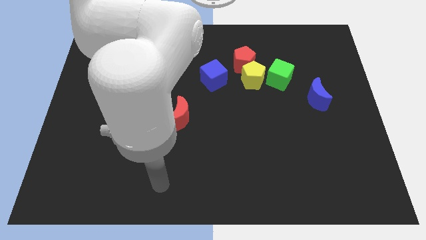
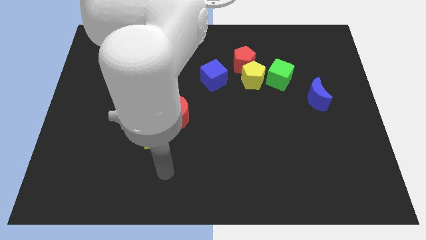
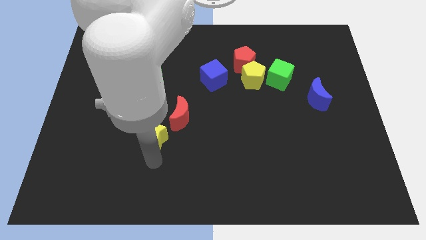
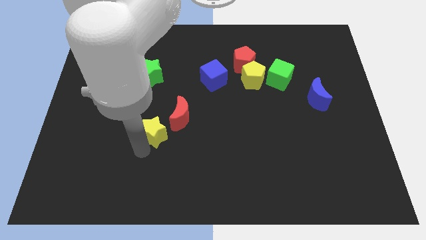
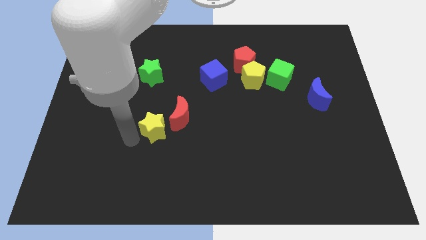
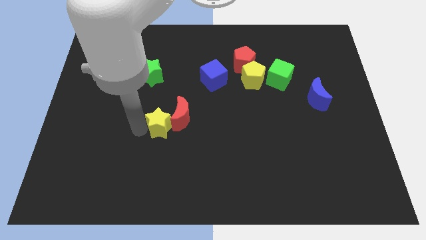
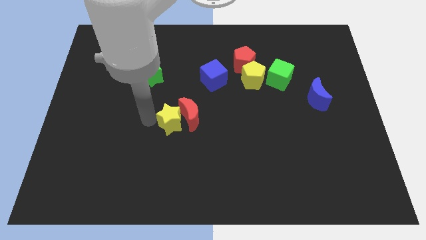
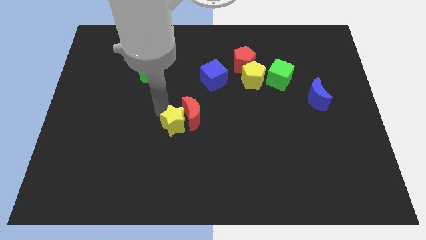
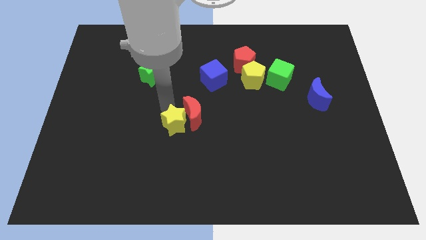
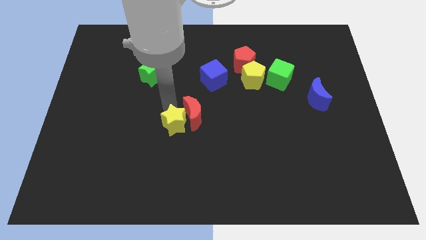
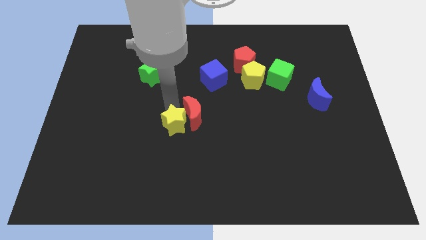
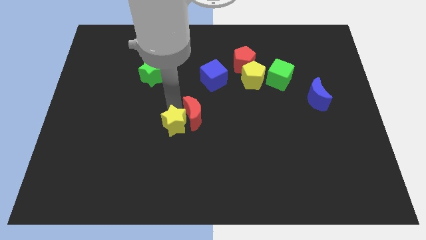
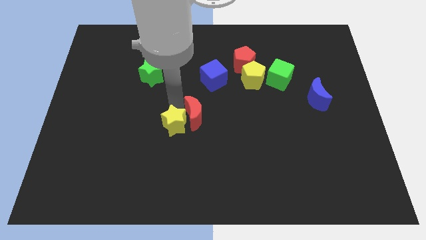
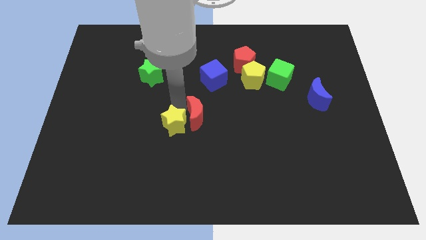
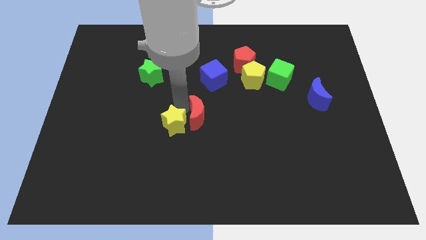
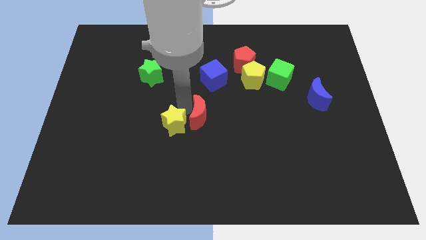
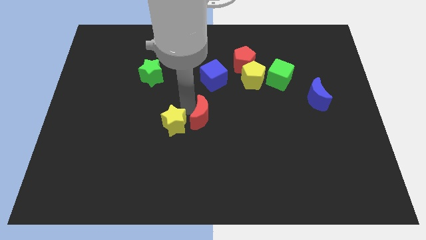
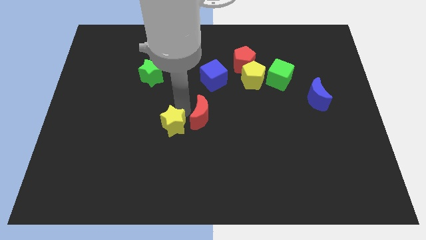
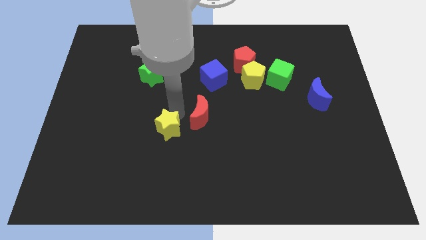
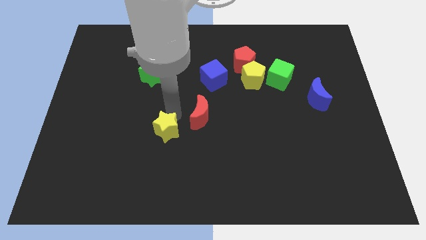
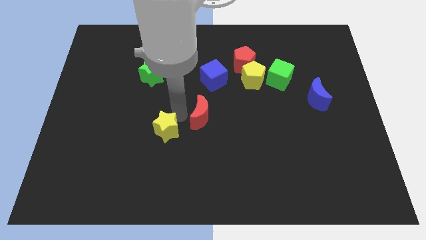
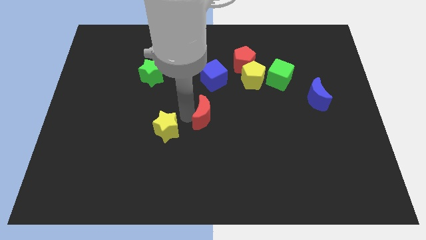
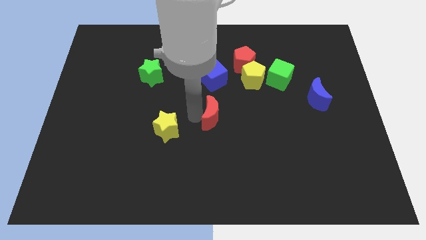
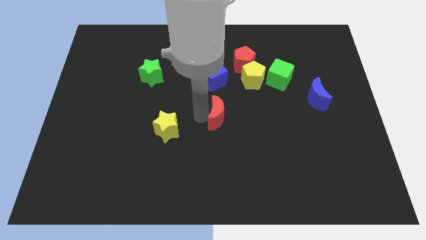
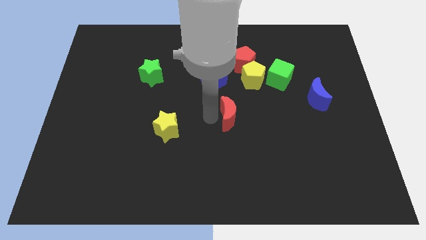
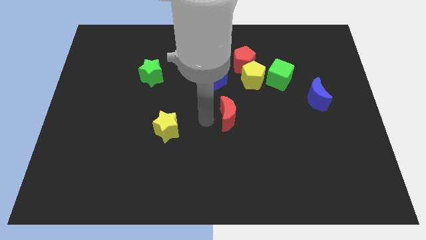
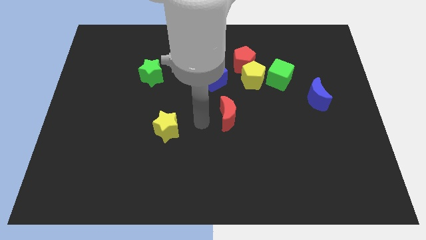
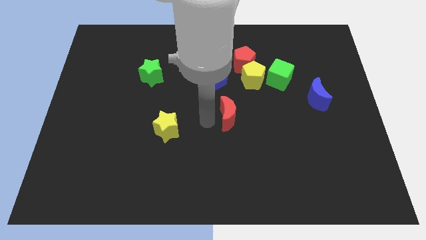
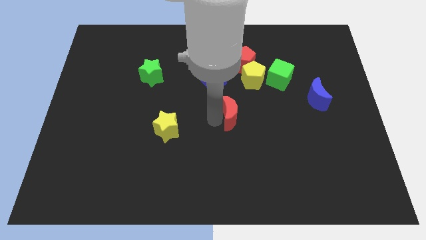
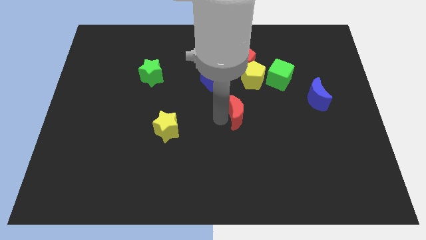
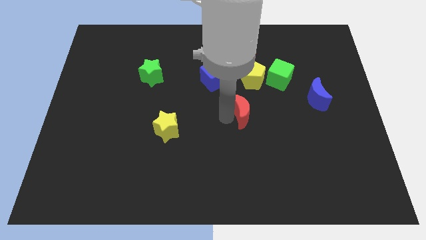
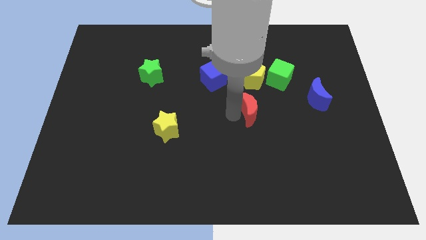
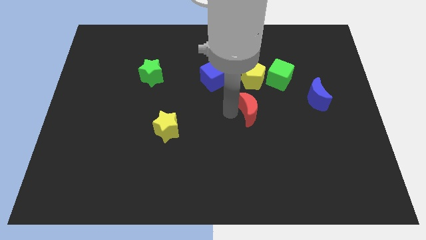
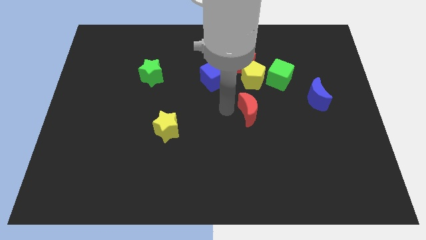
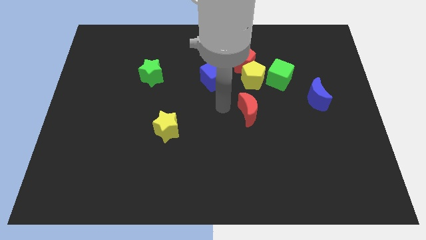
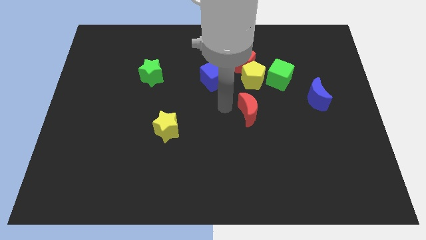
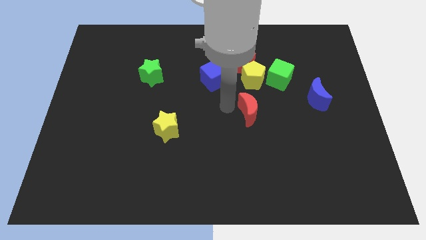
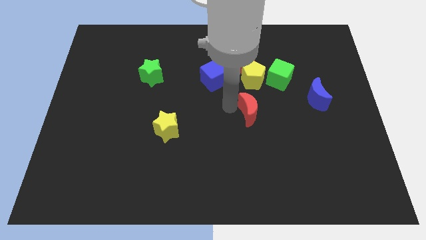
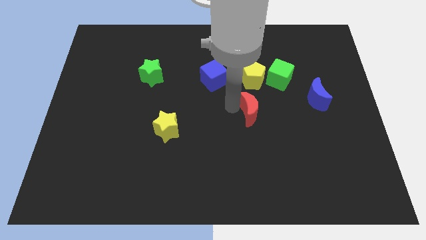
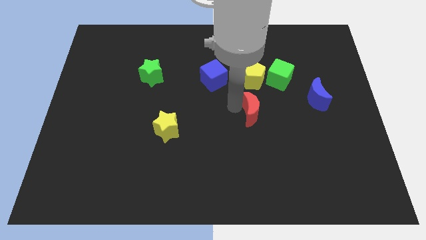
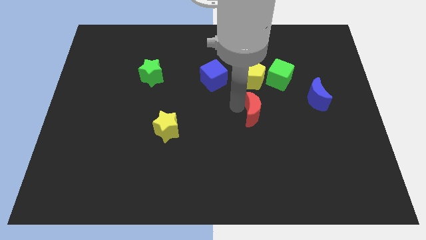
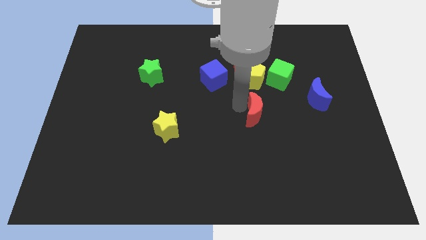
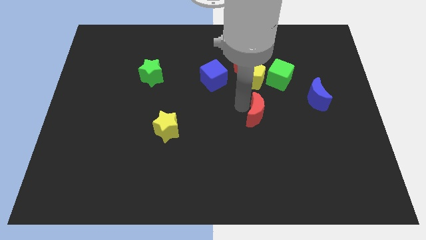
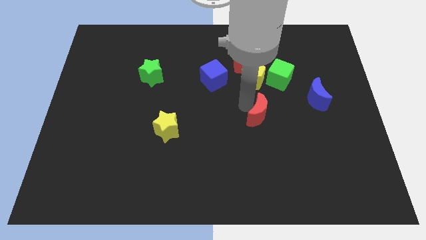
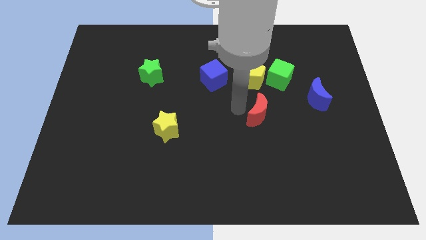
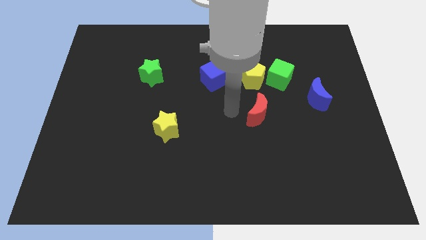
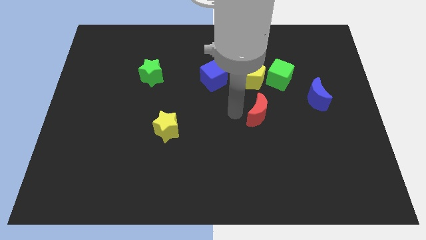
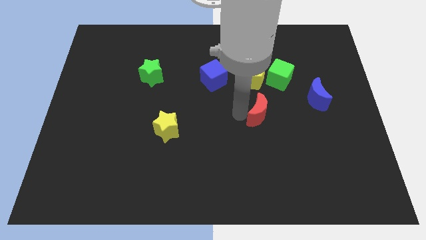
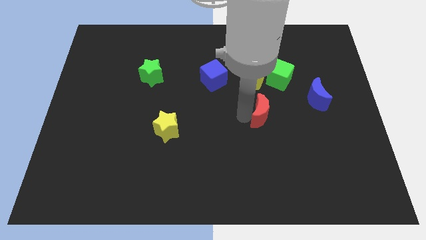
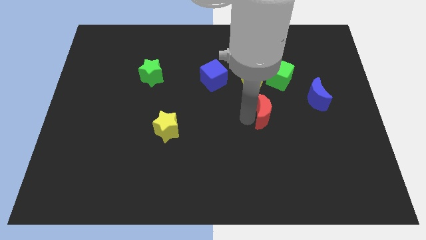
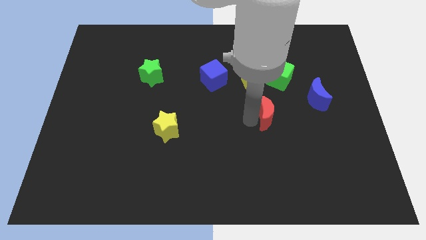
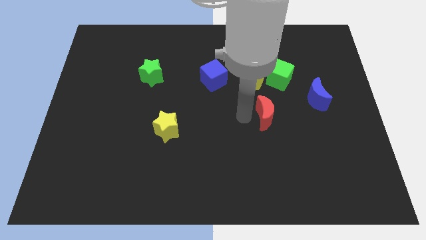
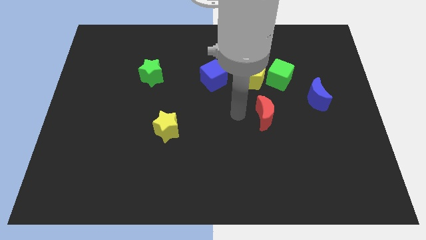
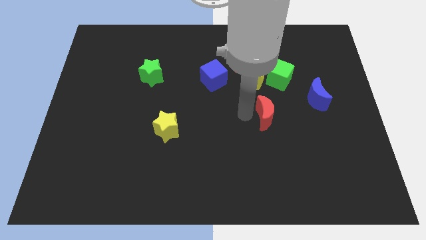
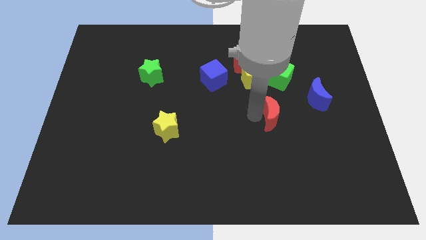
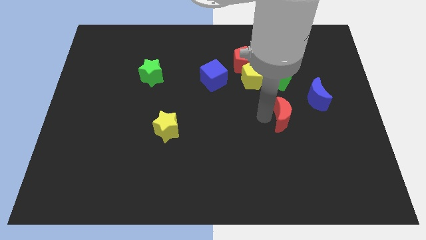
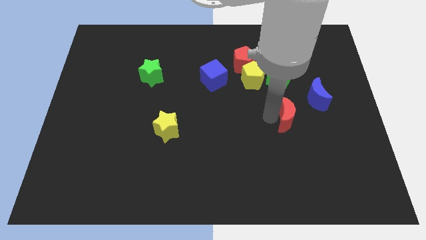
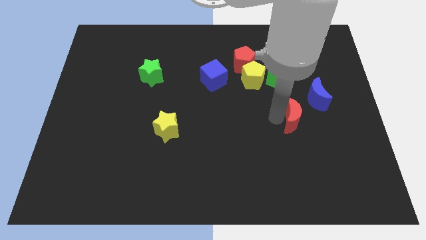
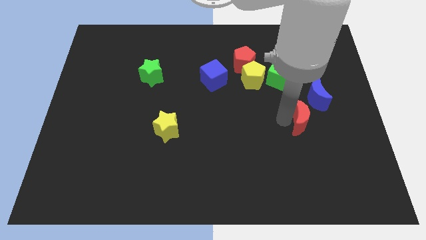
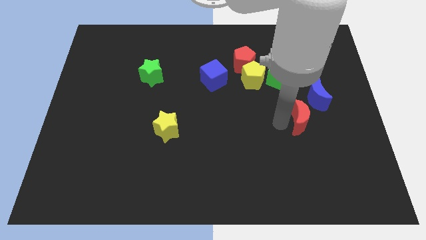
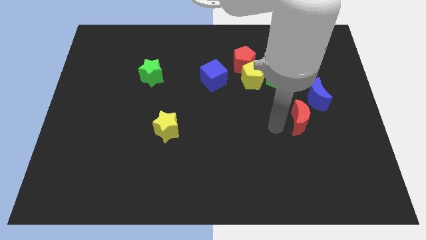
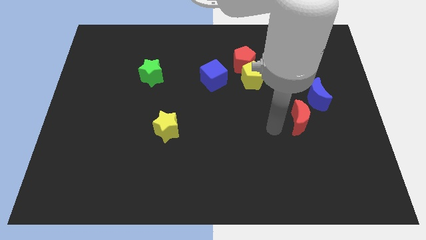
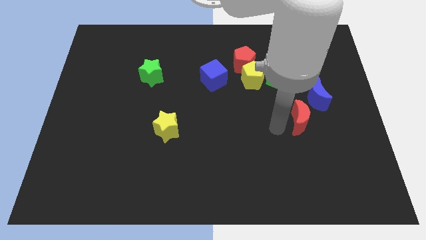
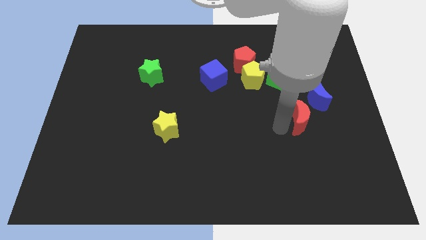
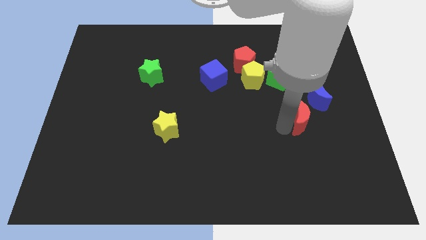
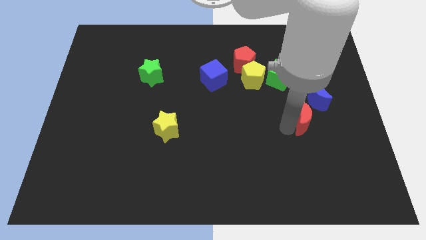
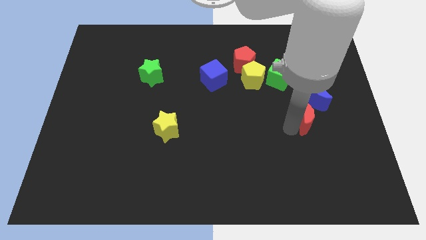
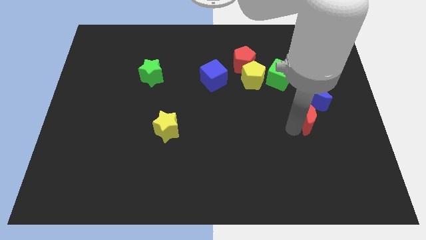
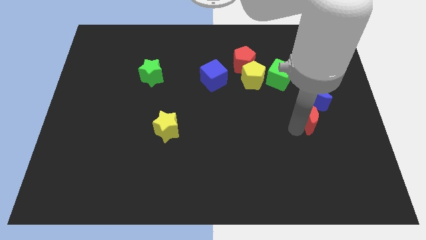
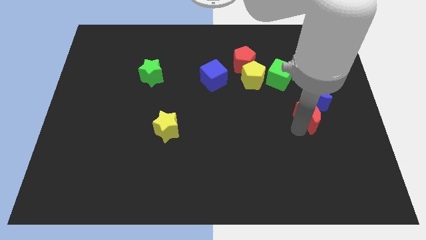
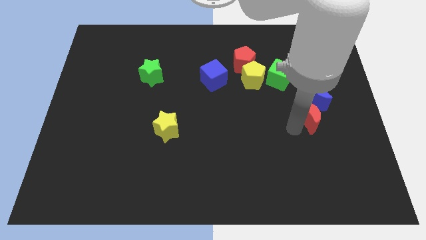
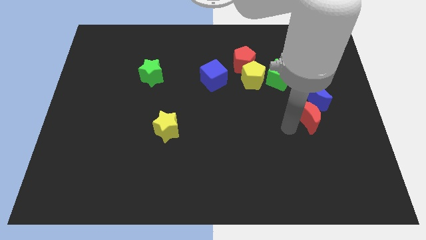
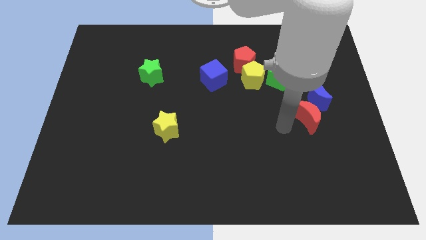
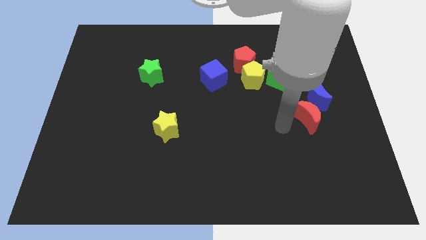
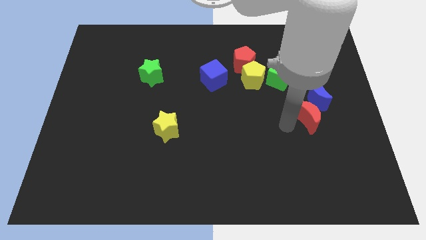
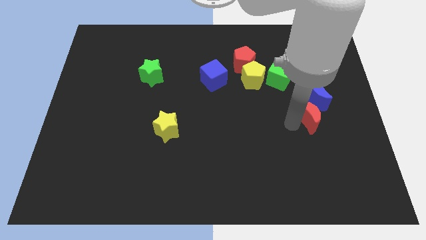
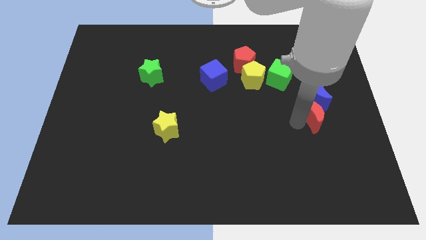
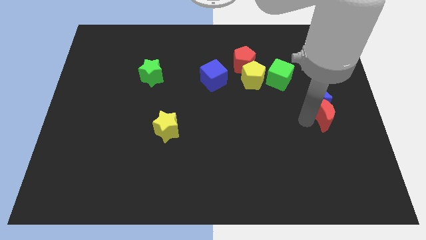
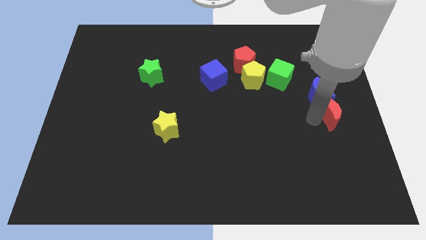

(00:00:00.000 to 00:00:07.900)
push the red moon to the center right
